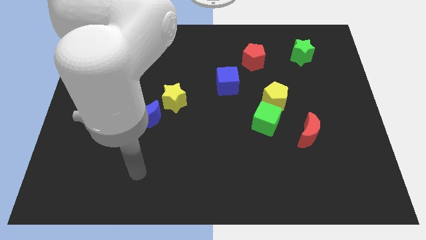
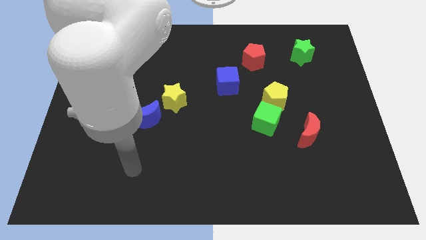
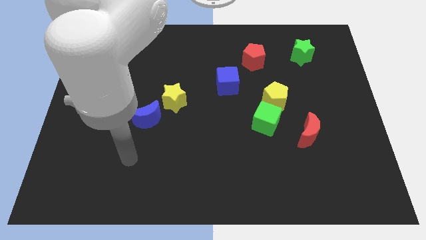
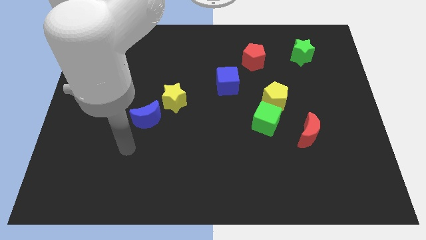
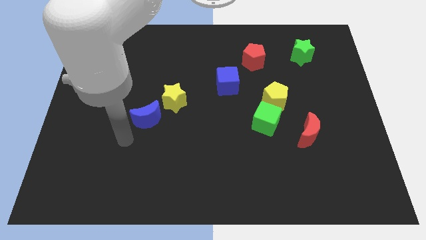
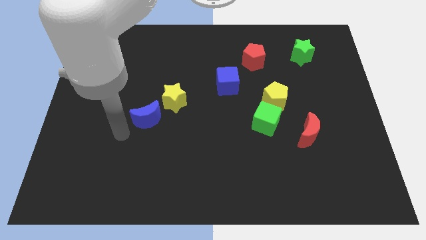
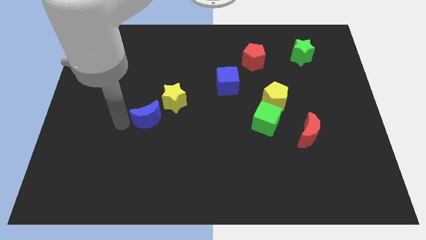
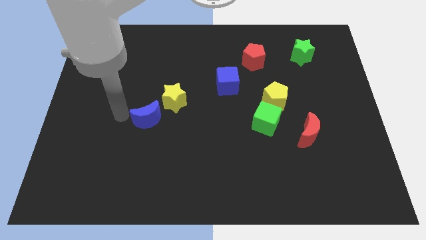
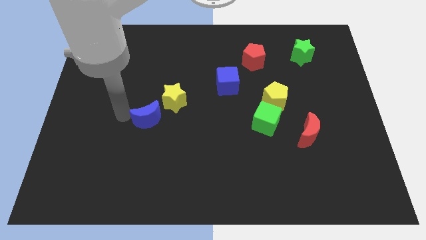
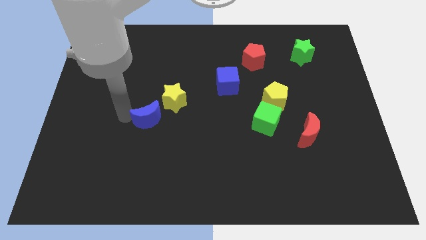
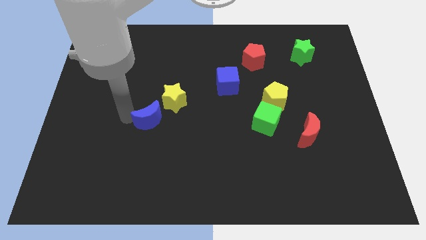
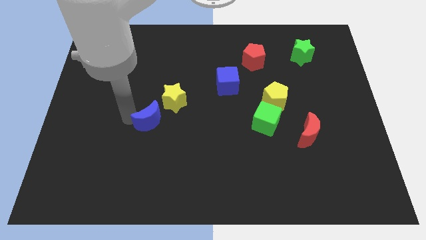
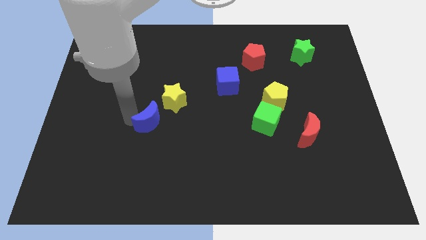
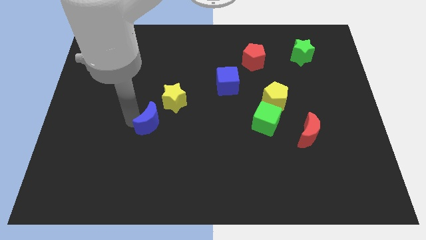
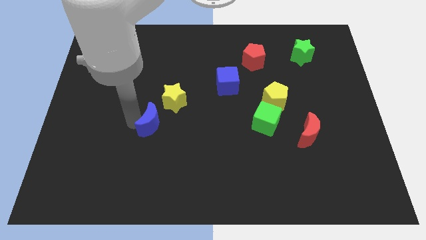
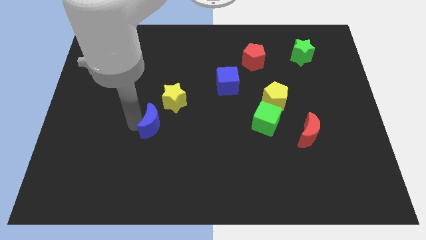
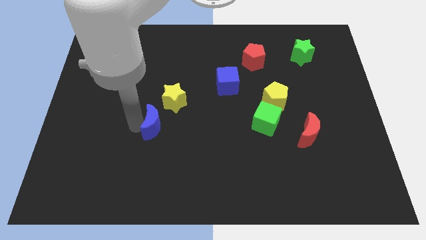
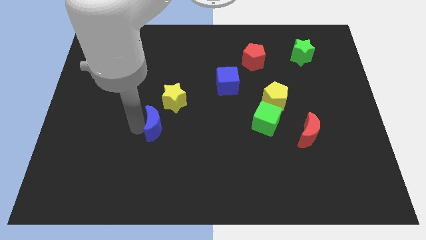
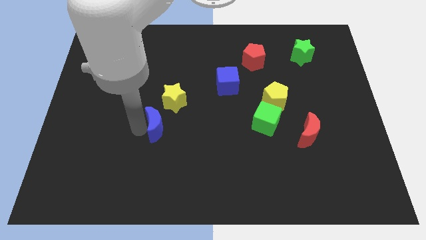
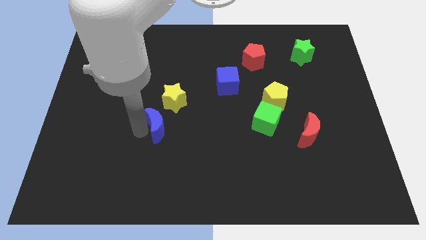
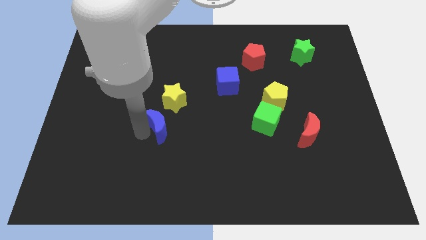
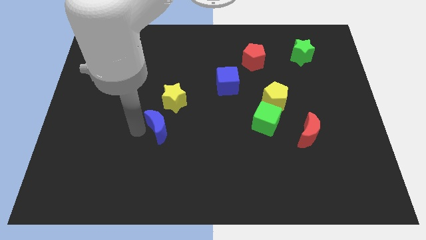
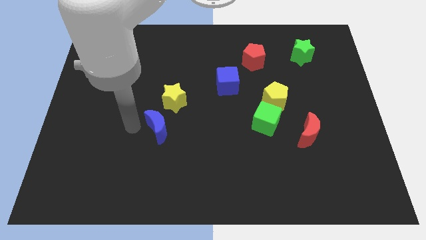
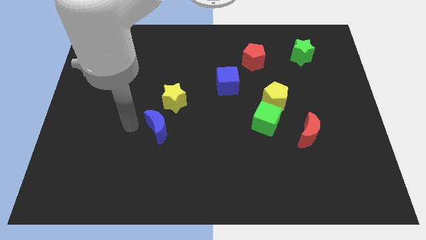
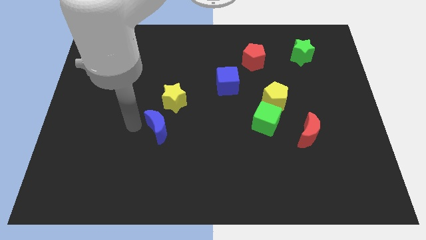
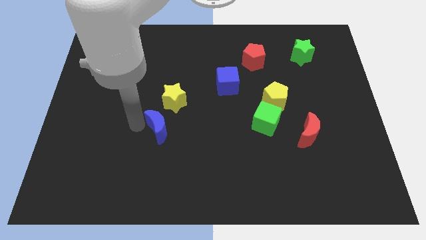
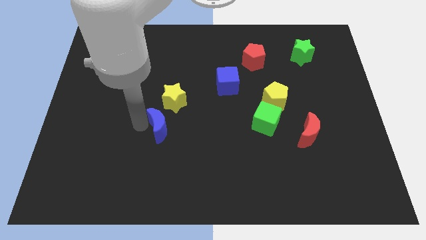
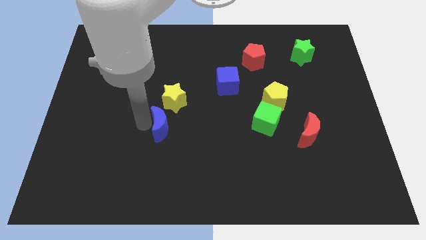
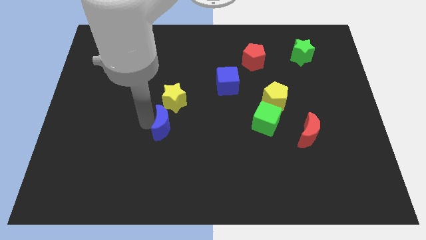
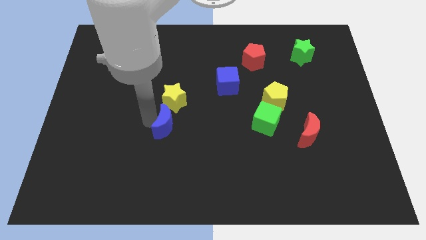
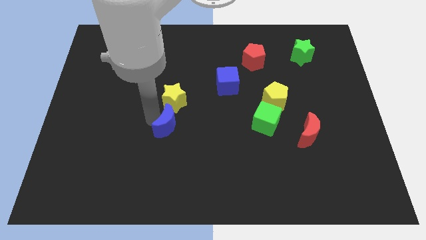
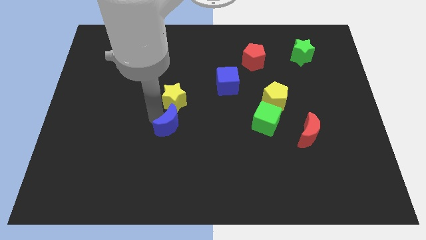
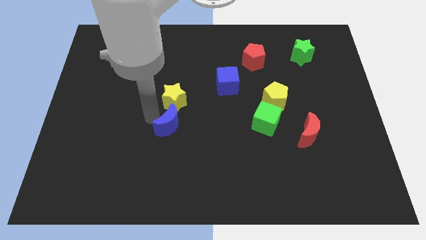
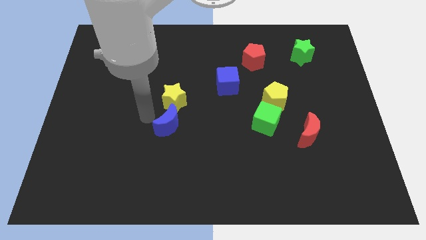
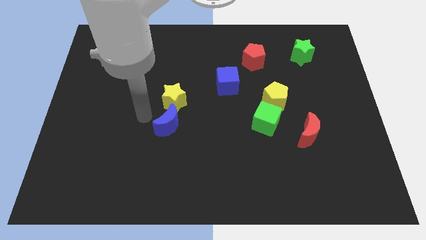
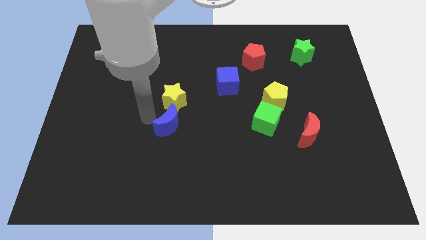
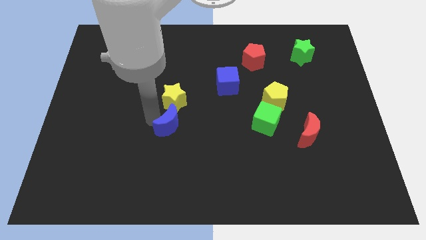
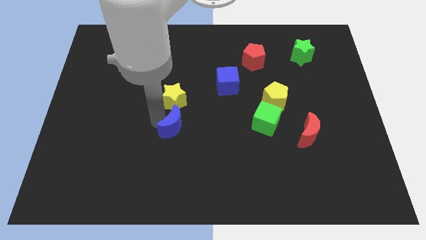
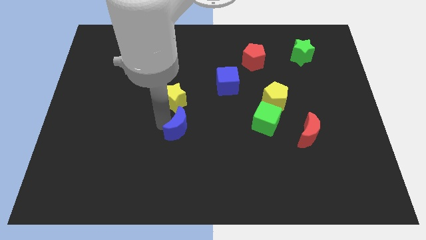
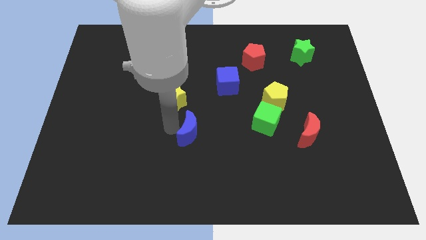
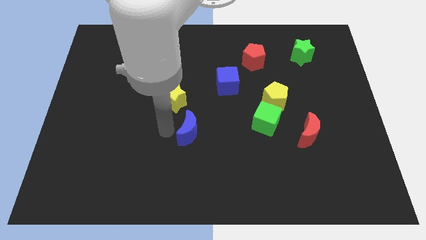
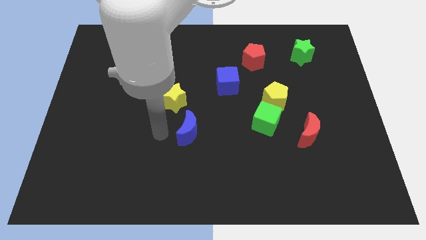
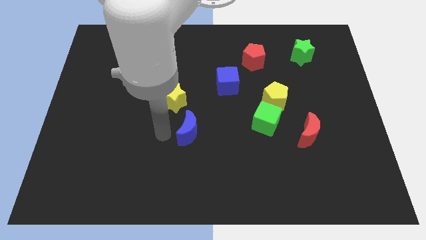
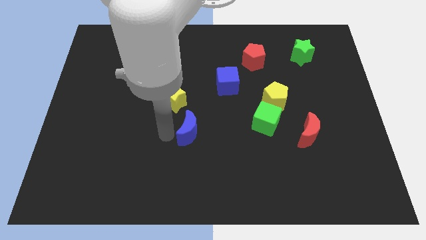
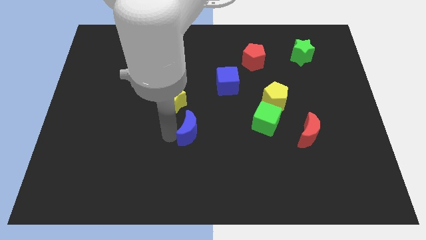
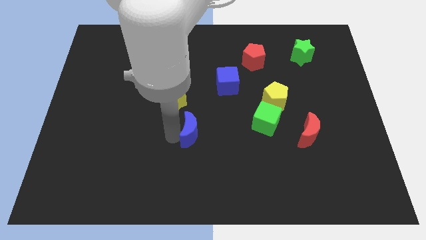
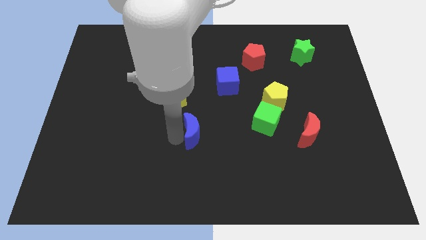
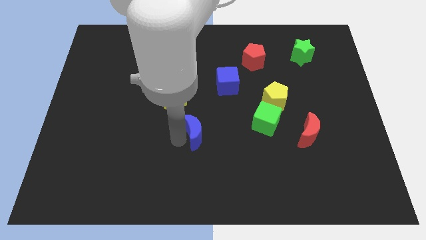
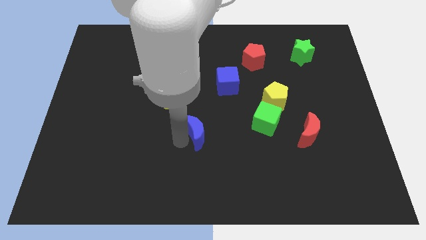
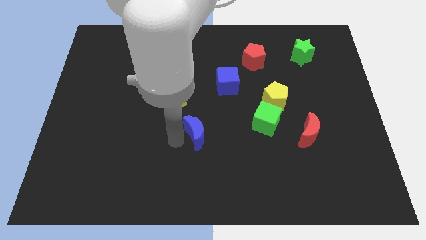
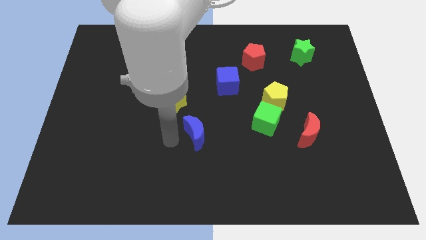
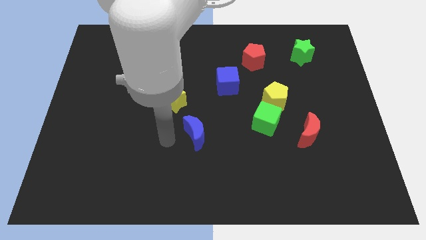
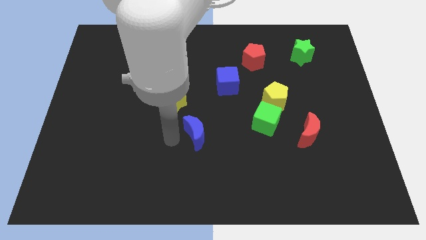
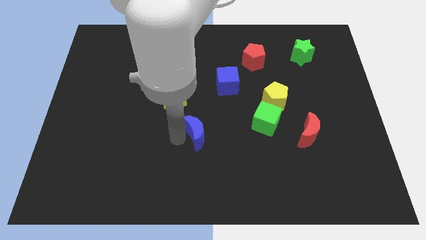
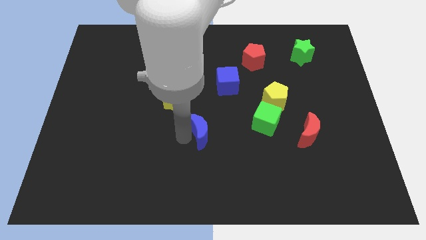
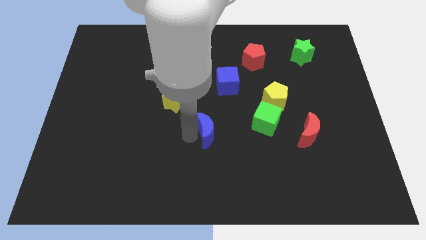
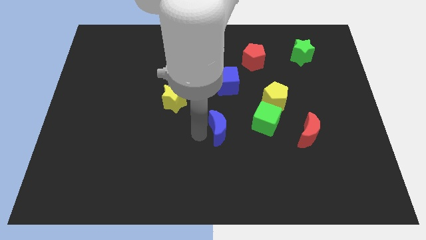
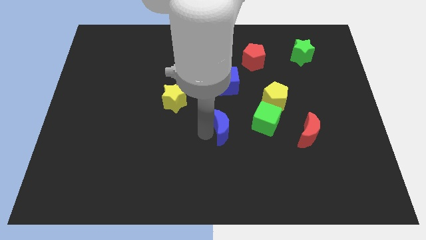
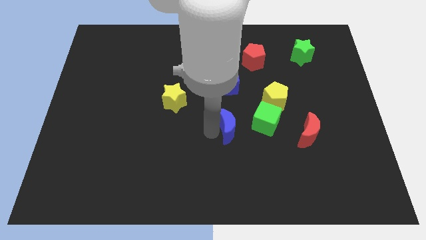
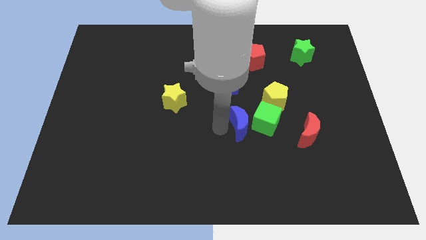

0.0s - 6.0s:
slide the blue moon to the right

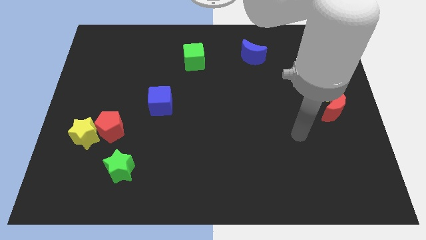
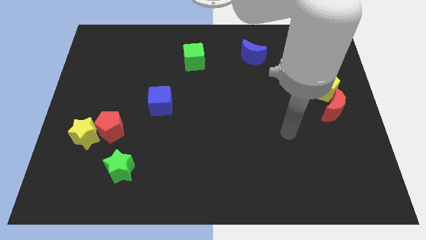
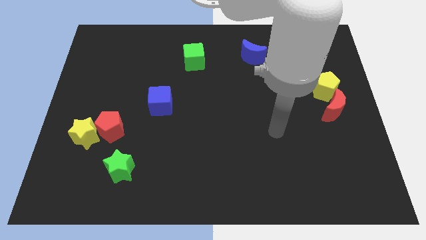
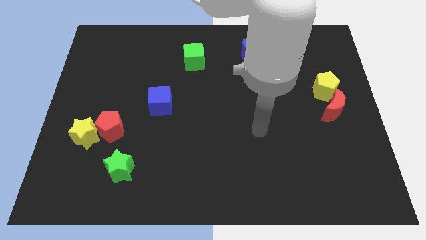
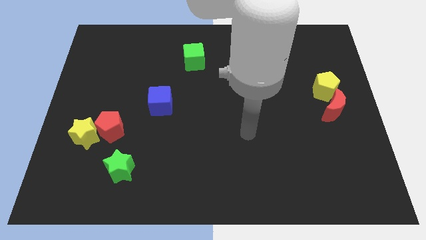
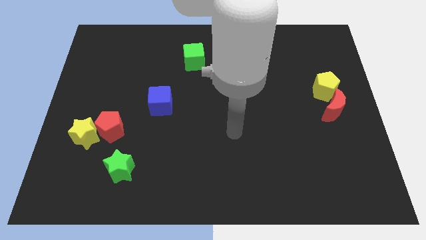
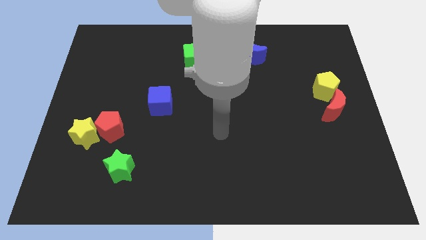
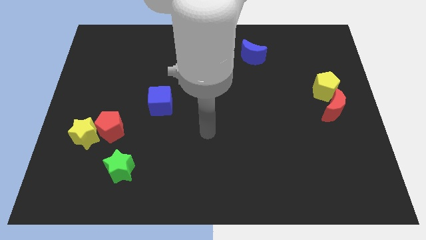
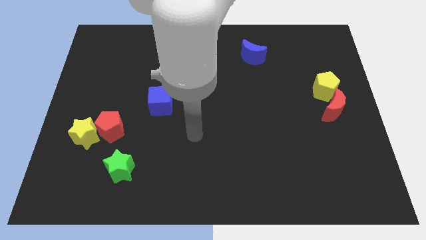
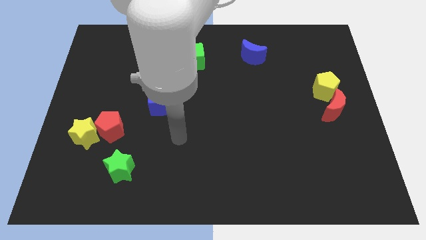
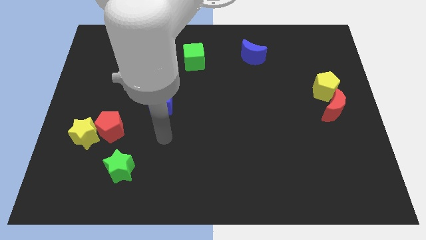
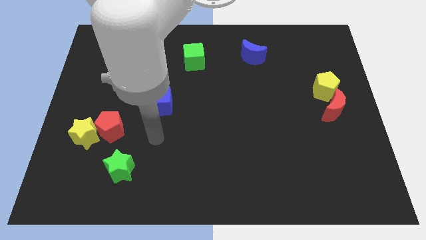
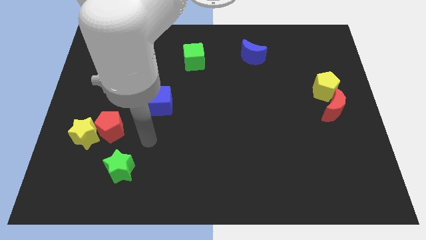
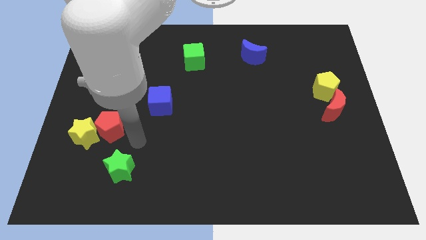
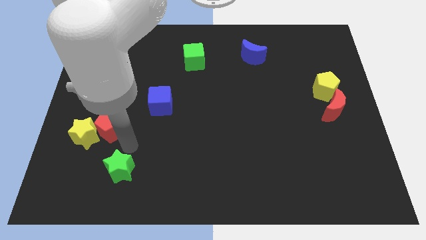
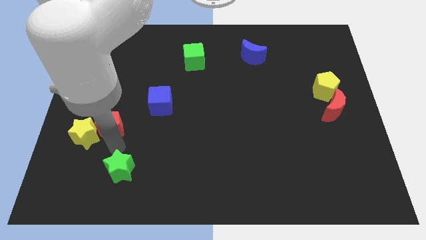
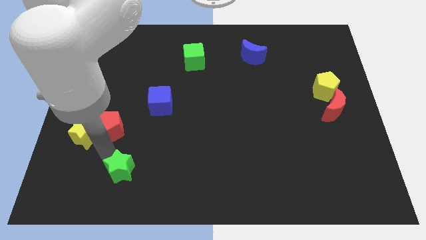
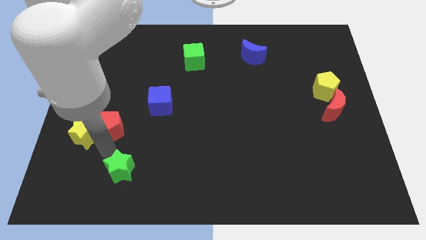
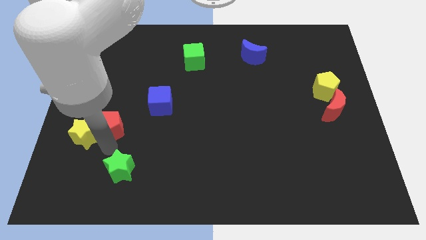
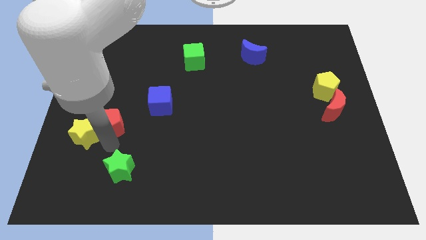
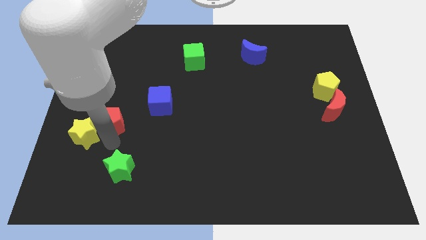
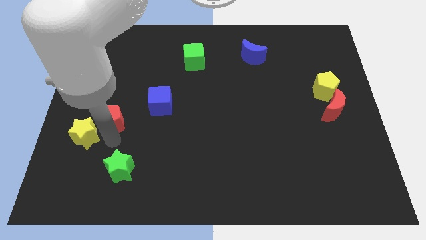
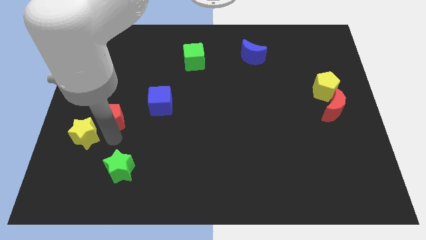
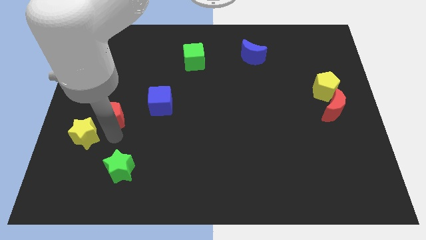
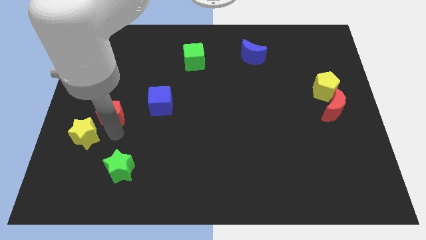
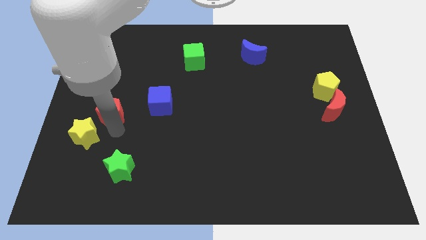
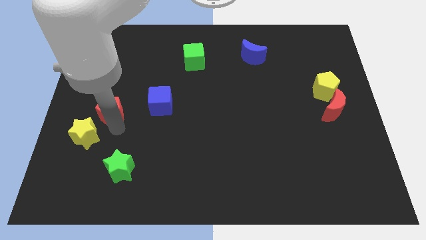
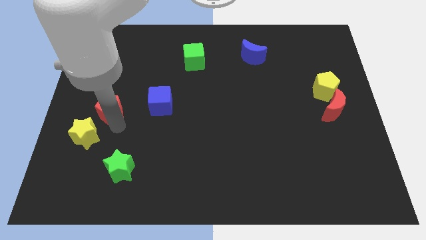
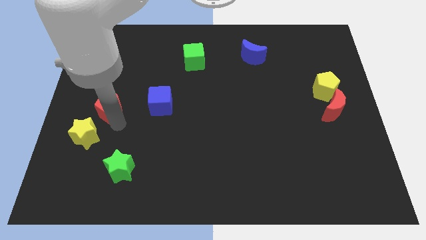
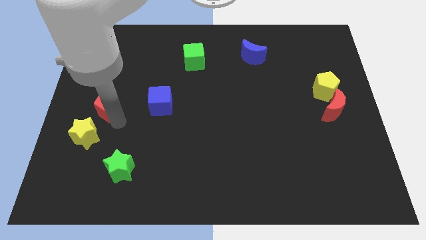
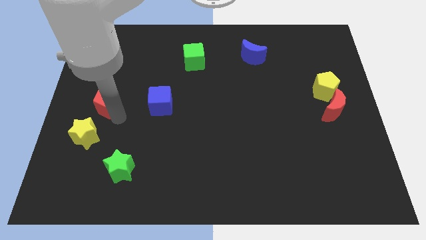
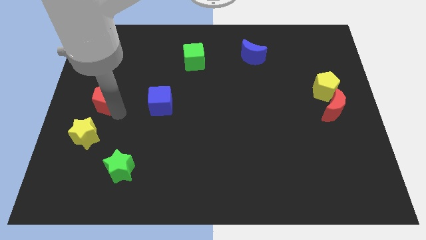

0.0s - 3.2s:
move the red pentagon somewhat upwards
